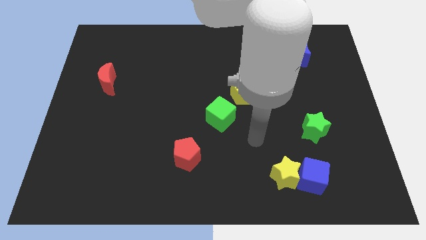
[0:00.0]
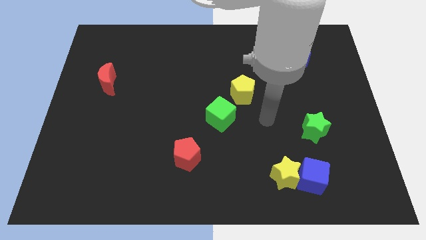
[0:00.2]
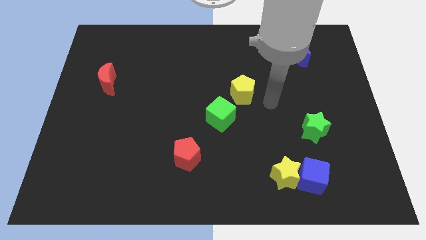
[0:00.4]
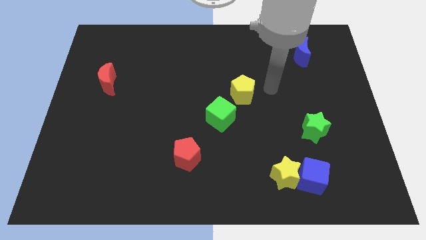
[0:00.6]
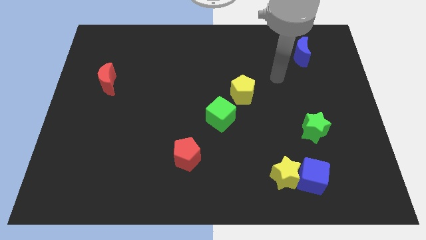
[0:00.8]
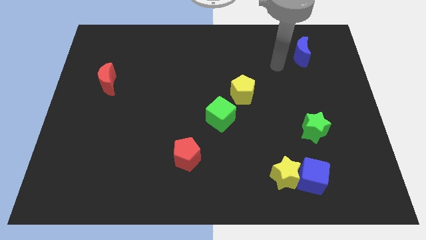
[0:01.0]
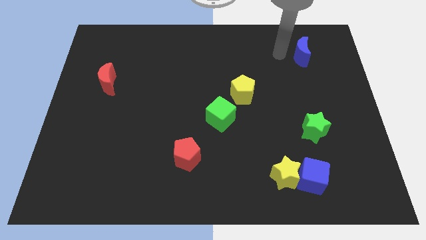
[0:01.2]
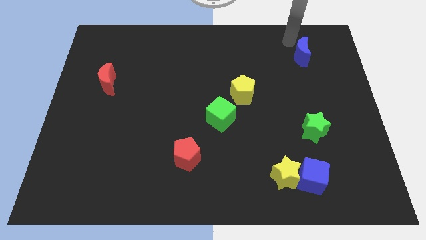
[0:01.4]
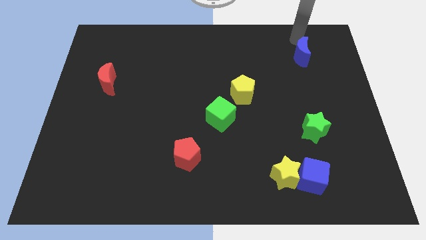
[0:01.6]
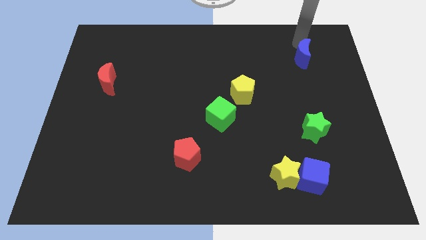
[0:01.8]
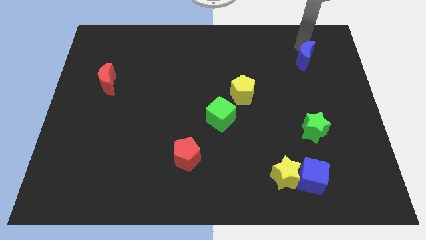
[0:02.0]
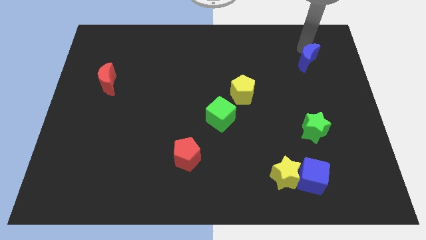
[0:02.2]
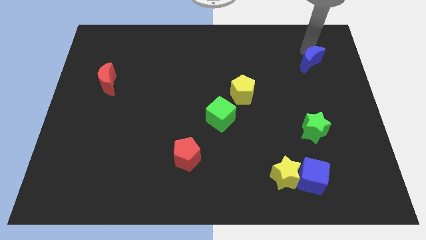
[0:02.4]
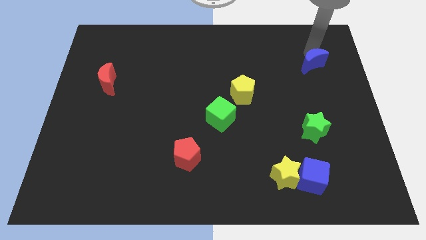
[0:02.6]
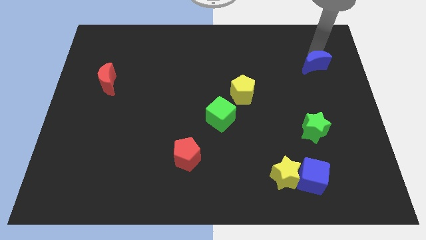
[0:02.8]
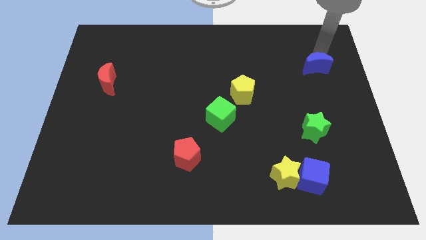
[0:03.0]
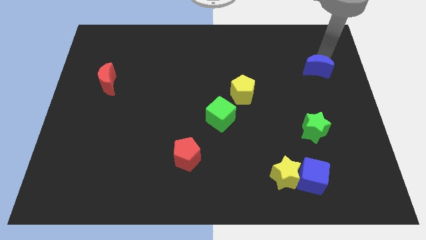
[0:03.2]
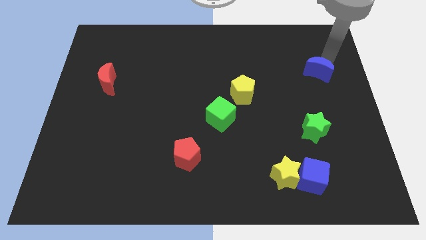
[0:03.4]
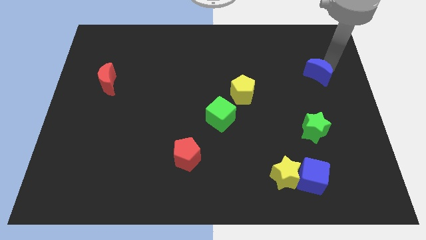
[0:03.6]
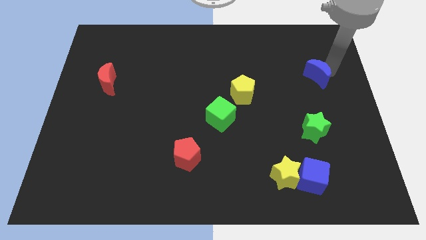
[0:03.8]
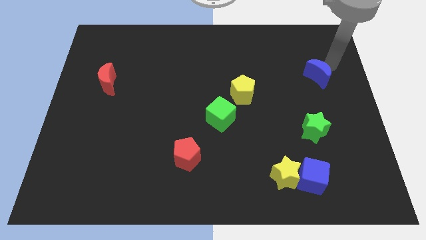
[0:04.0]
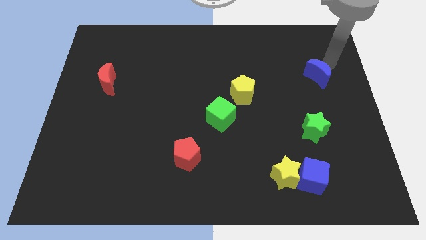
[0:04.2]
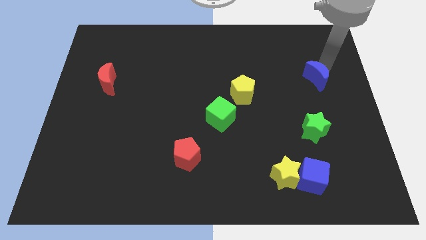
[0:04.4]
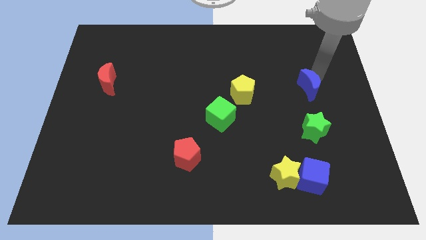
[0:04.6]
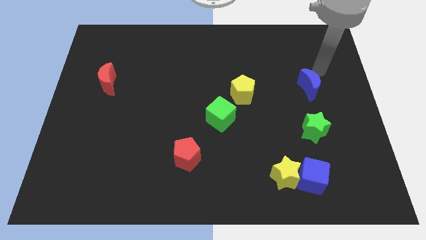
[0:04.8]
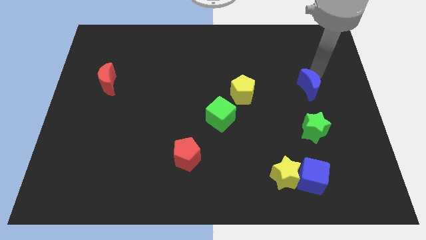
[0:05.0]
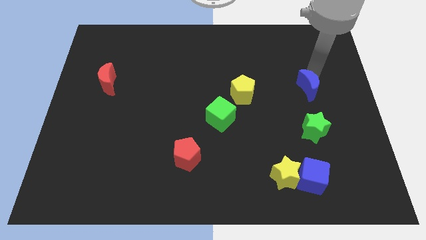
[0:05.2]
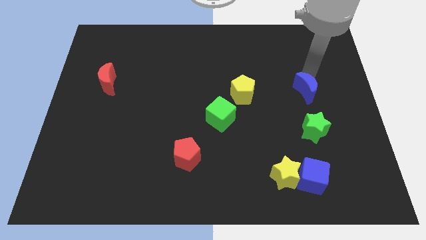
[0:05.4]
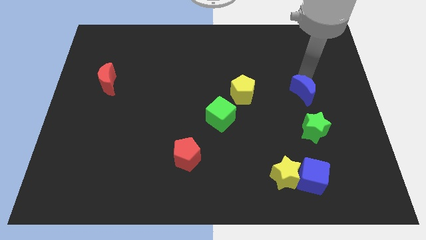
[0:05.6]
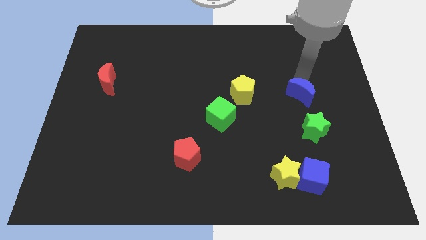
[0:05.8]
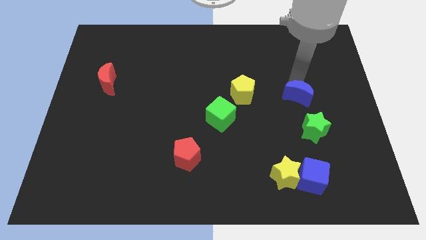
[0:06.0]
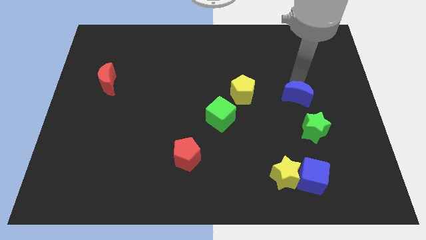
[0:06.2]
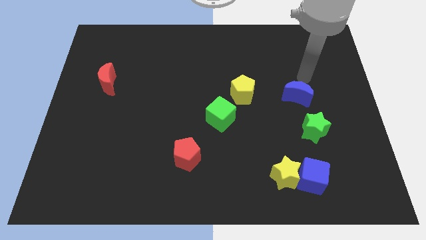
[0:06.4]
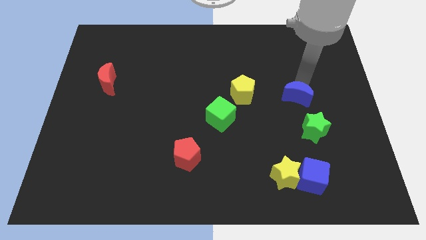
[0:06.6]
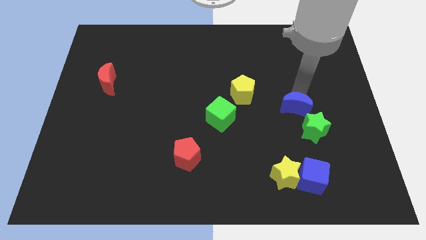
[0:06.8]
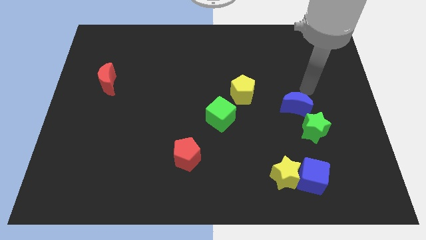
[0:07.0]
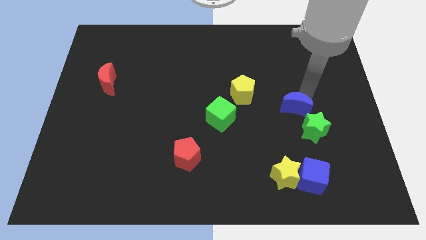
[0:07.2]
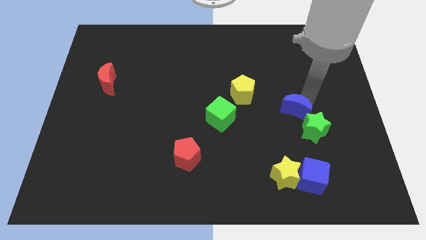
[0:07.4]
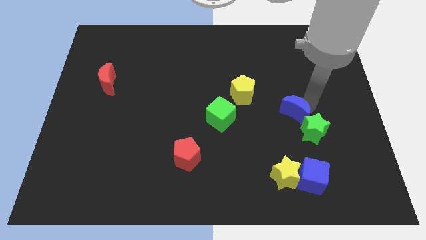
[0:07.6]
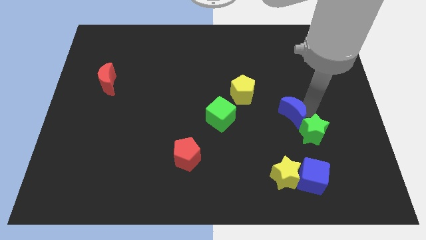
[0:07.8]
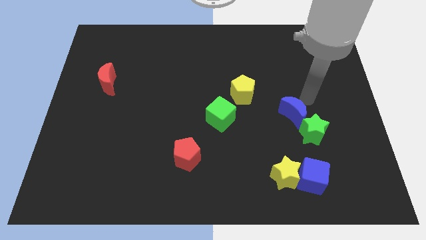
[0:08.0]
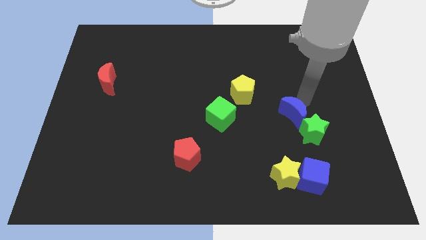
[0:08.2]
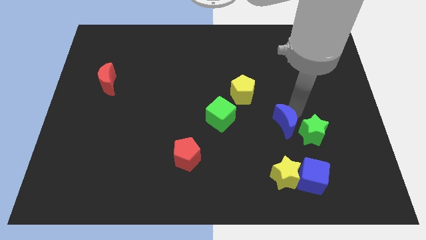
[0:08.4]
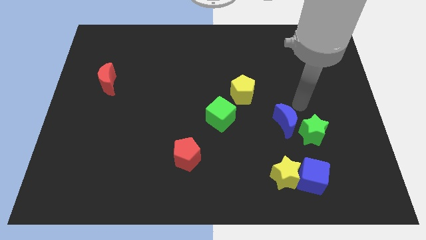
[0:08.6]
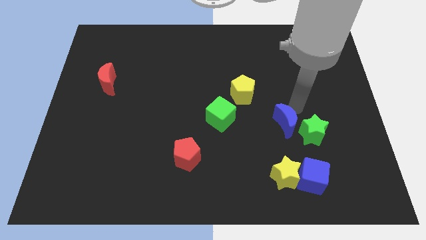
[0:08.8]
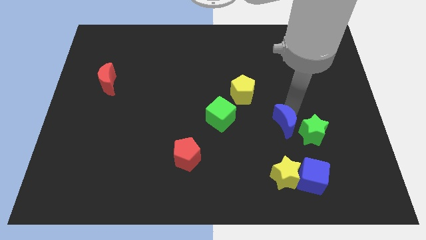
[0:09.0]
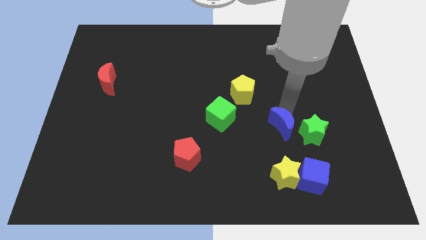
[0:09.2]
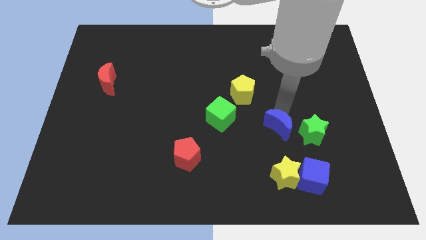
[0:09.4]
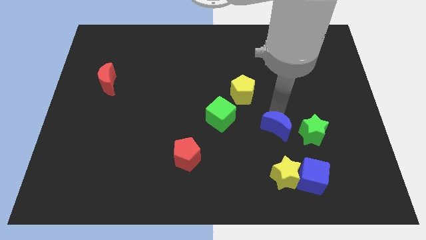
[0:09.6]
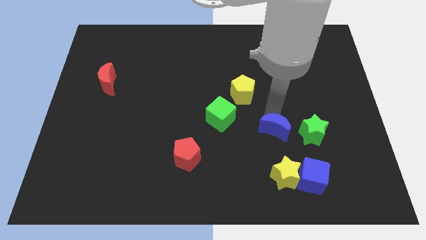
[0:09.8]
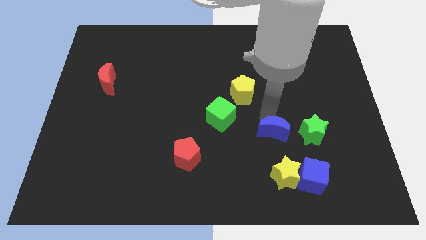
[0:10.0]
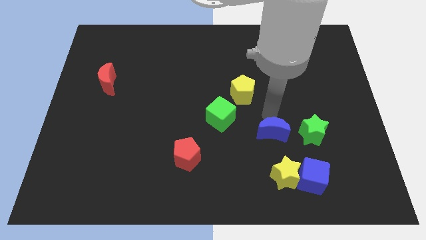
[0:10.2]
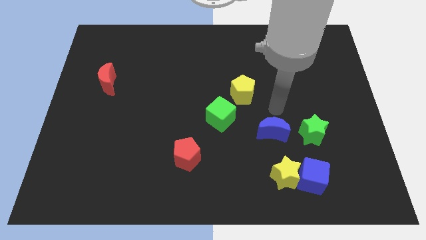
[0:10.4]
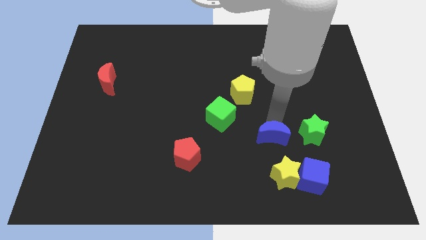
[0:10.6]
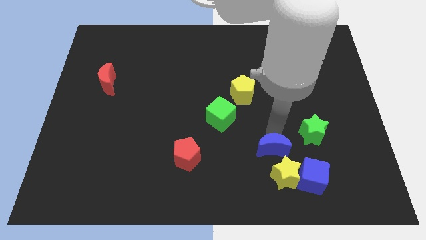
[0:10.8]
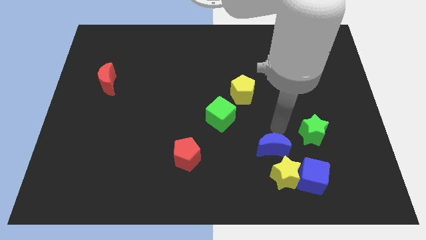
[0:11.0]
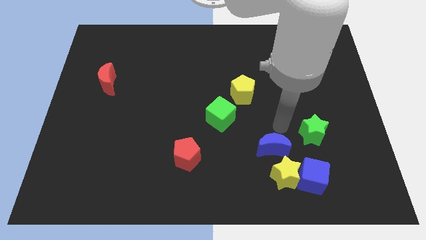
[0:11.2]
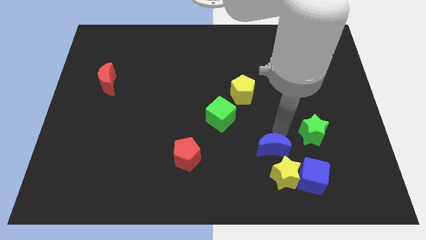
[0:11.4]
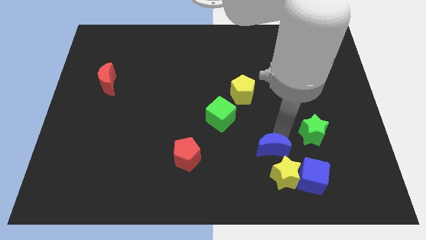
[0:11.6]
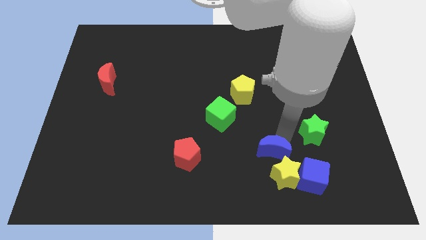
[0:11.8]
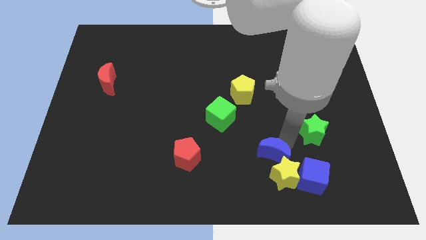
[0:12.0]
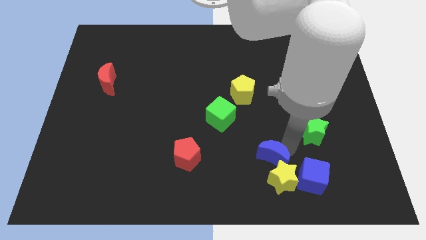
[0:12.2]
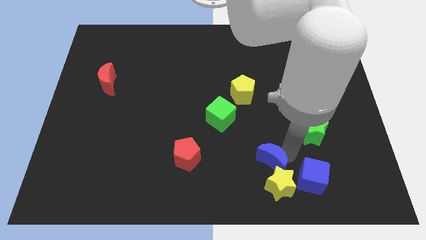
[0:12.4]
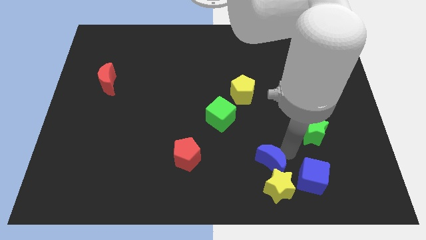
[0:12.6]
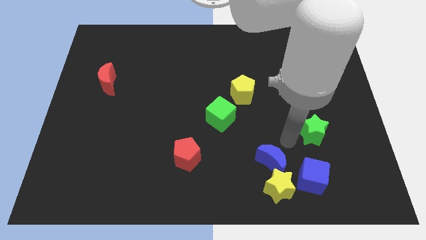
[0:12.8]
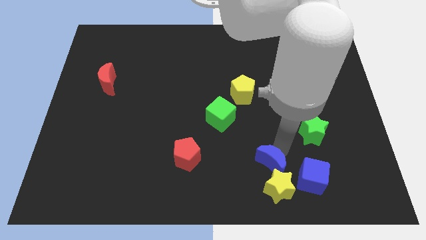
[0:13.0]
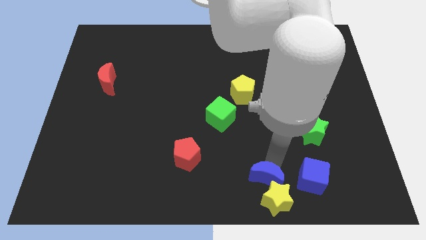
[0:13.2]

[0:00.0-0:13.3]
move the blue moon to the bottom side

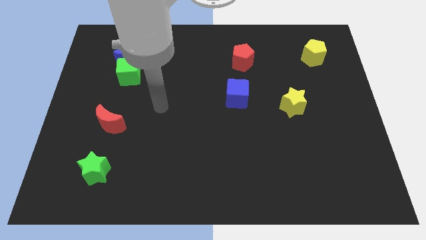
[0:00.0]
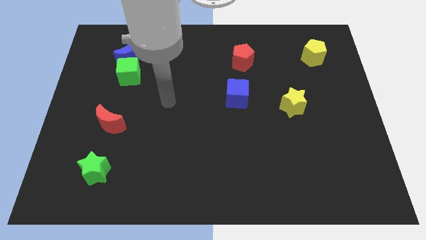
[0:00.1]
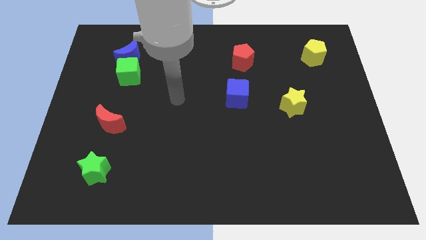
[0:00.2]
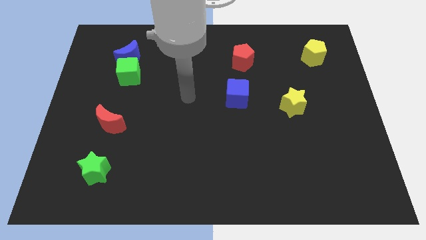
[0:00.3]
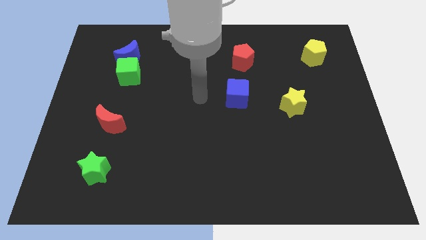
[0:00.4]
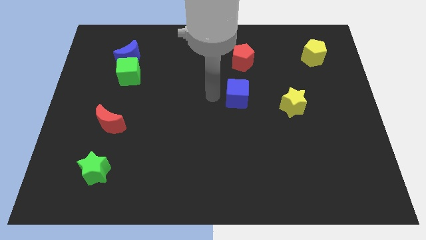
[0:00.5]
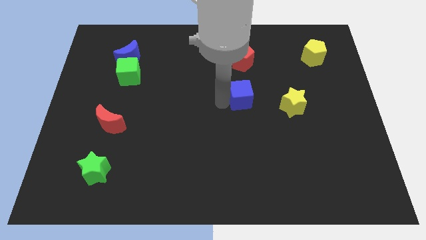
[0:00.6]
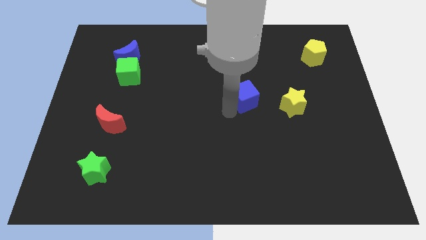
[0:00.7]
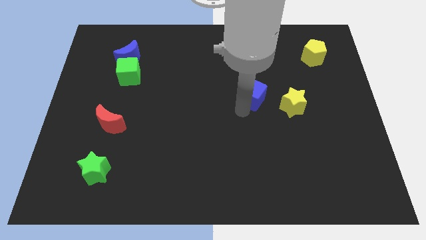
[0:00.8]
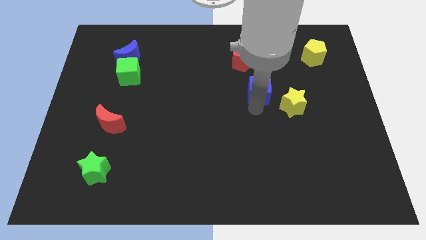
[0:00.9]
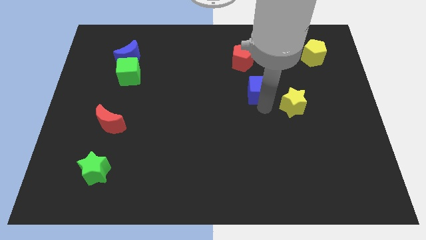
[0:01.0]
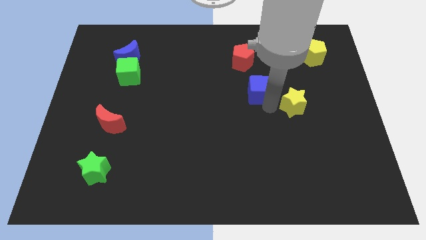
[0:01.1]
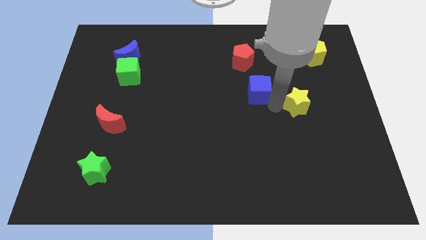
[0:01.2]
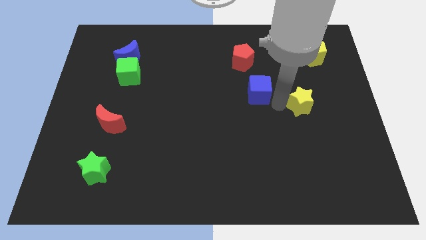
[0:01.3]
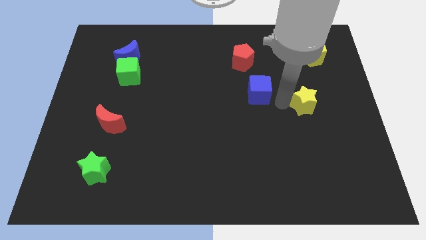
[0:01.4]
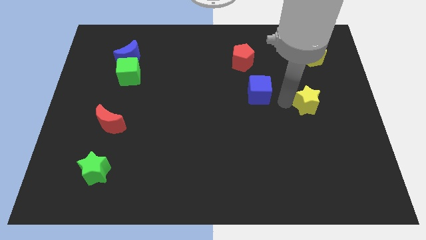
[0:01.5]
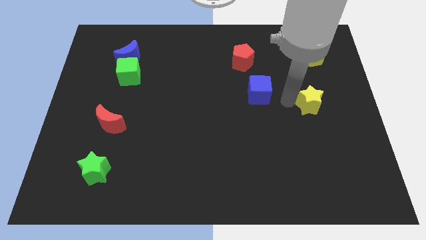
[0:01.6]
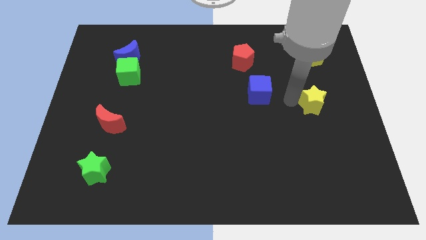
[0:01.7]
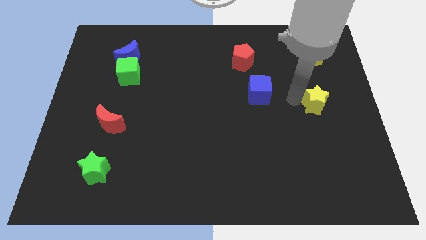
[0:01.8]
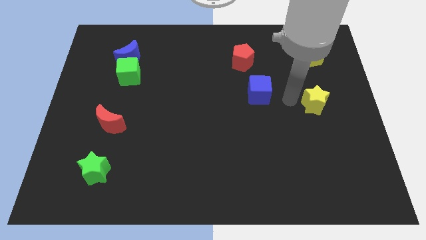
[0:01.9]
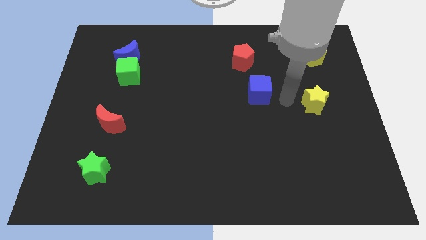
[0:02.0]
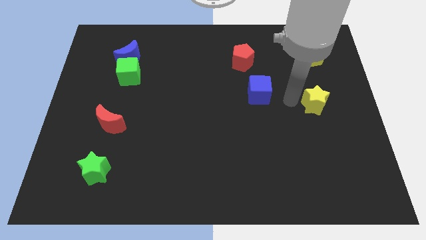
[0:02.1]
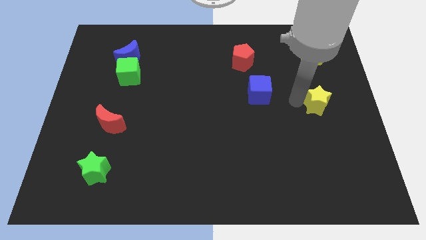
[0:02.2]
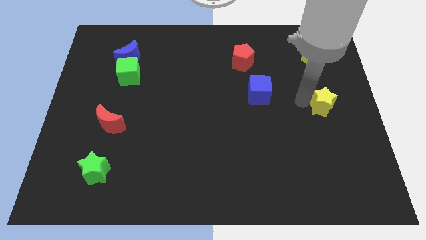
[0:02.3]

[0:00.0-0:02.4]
put the yellow star to the right side of the board
